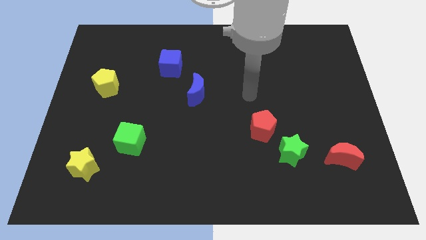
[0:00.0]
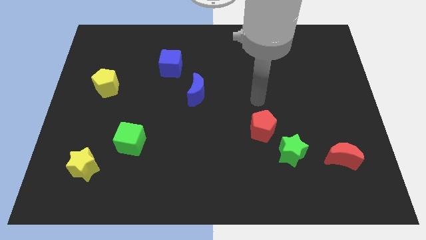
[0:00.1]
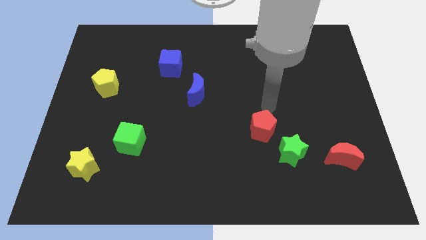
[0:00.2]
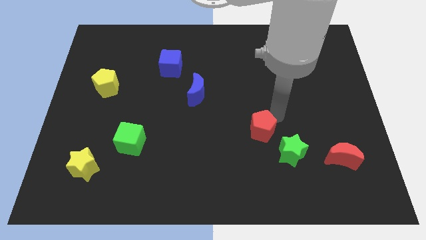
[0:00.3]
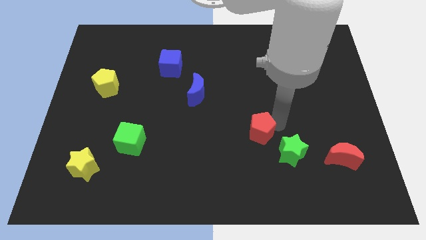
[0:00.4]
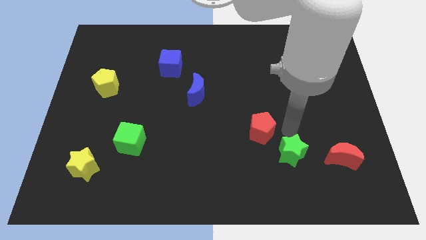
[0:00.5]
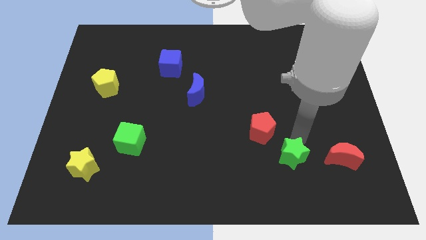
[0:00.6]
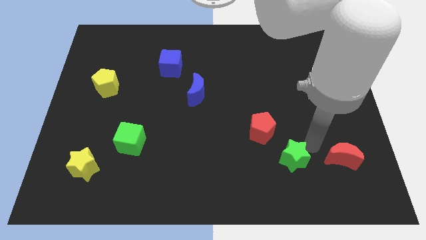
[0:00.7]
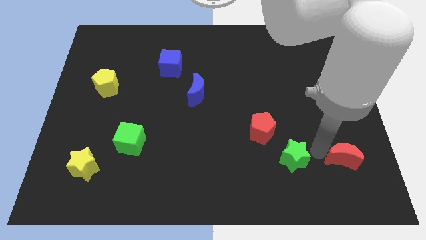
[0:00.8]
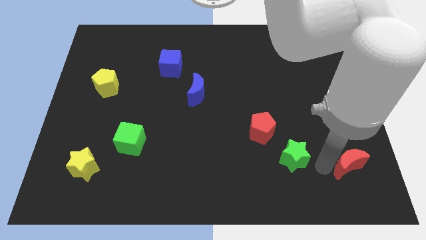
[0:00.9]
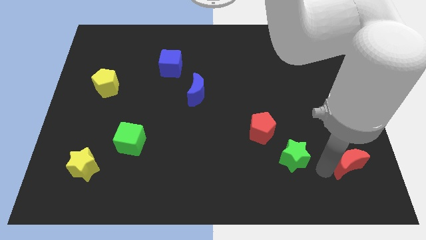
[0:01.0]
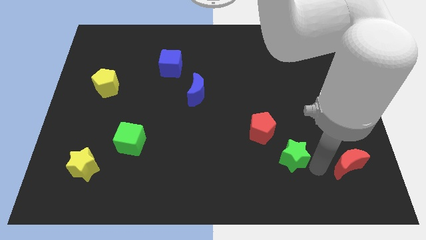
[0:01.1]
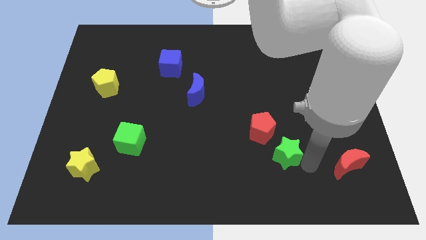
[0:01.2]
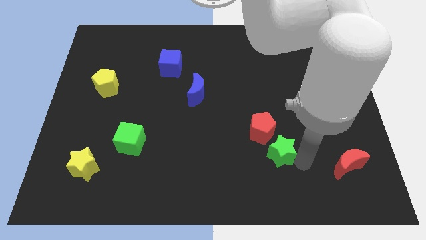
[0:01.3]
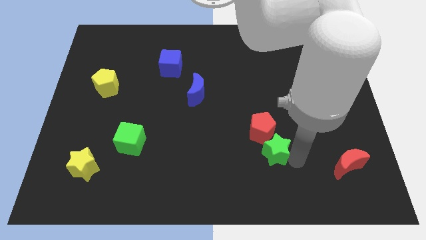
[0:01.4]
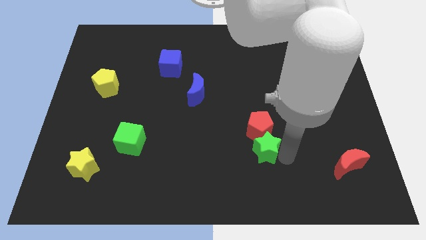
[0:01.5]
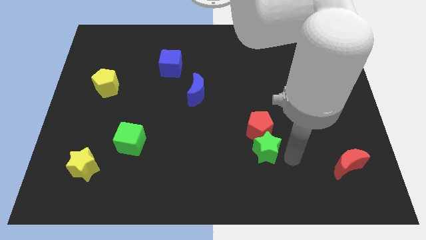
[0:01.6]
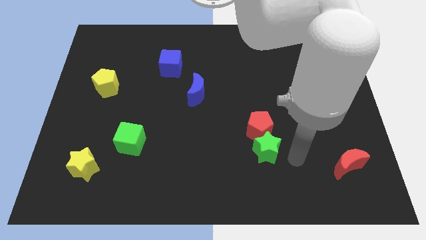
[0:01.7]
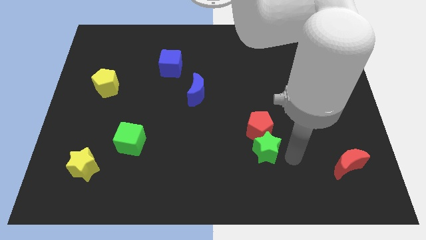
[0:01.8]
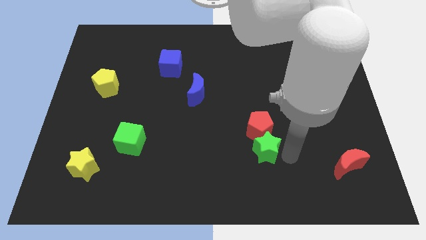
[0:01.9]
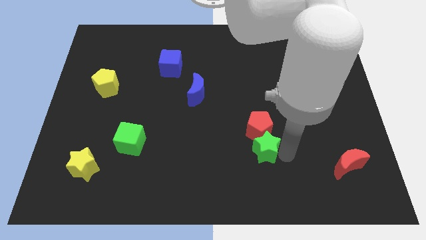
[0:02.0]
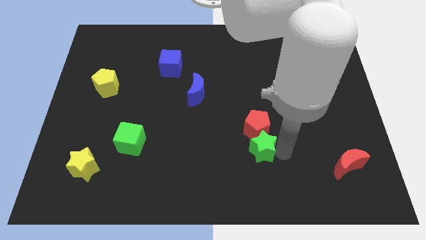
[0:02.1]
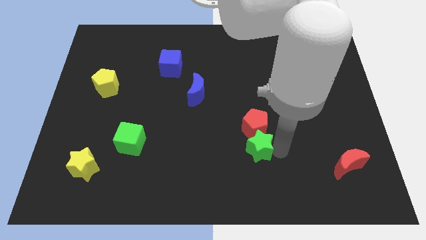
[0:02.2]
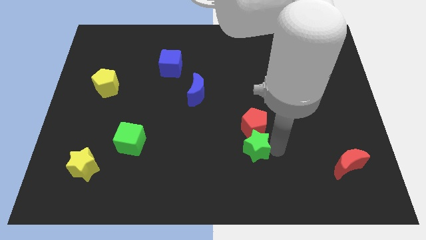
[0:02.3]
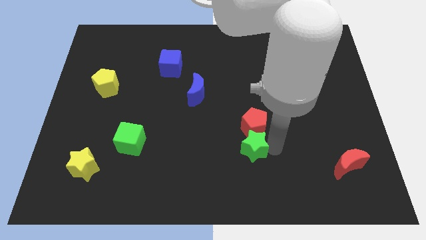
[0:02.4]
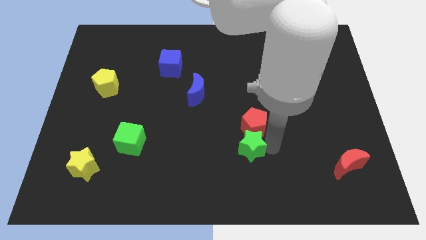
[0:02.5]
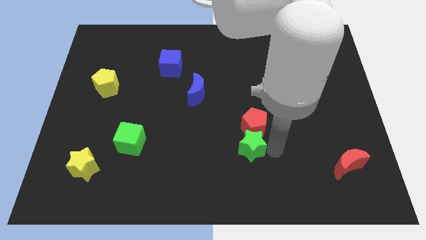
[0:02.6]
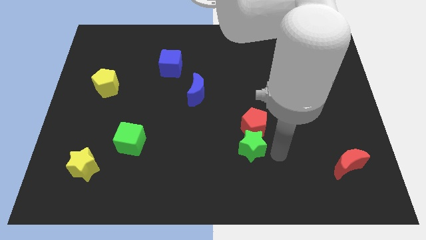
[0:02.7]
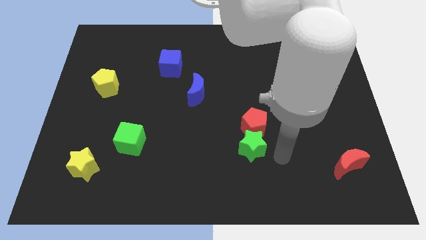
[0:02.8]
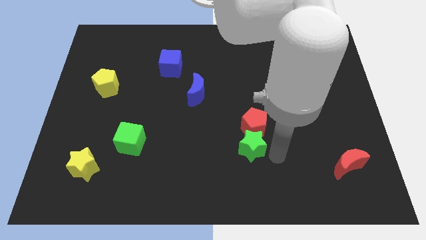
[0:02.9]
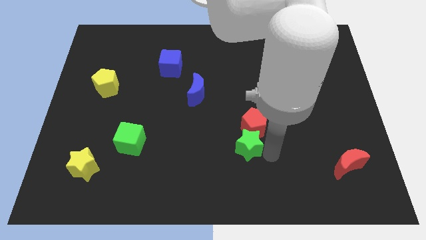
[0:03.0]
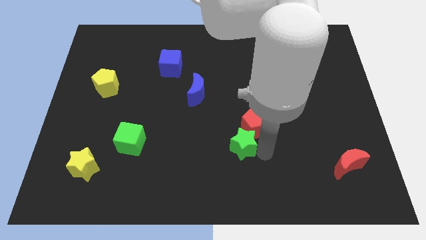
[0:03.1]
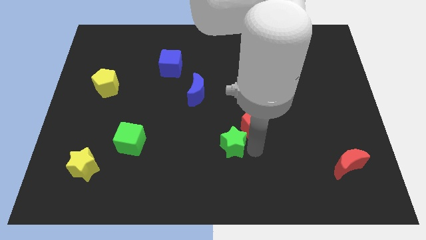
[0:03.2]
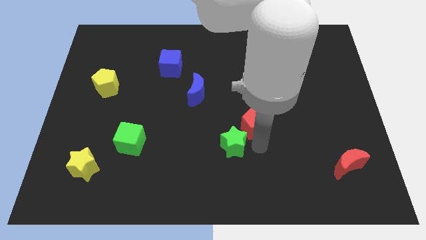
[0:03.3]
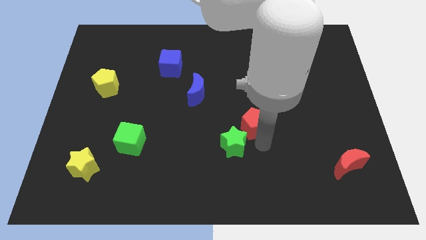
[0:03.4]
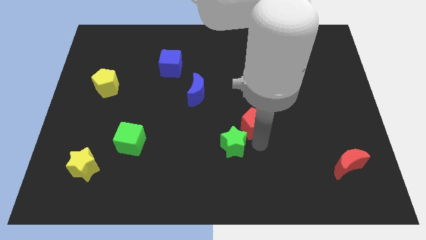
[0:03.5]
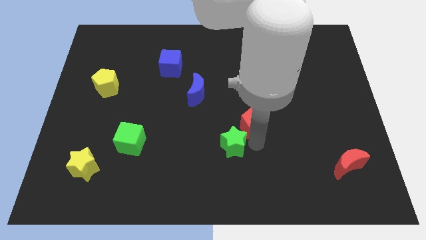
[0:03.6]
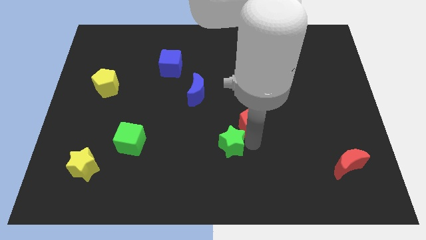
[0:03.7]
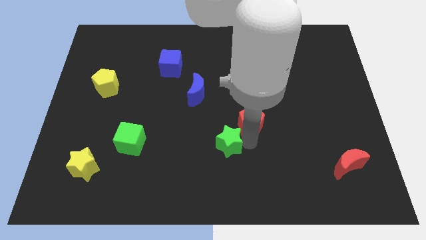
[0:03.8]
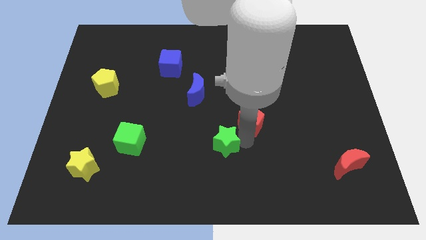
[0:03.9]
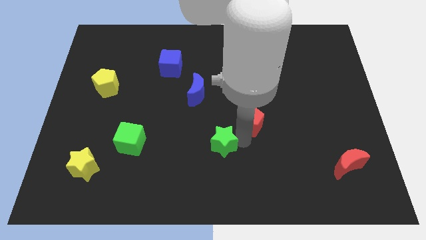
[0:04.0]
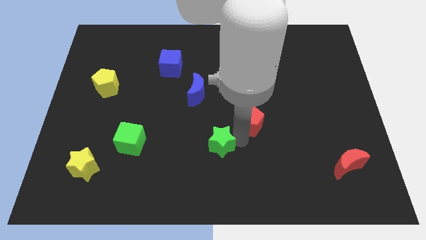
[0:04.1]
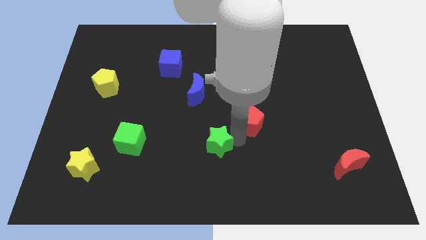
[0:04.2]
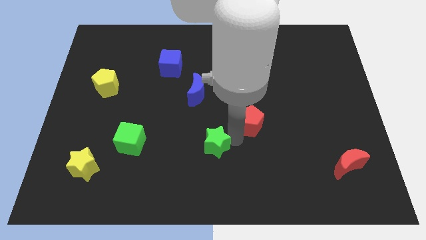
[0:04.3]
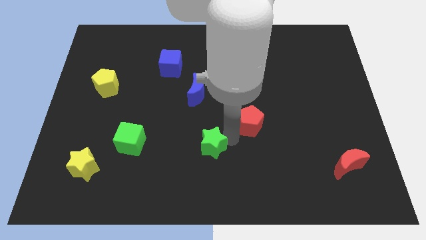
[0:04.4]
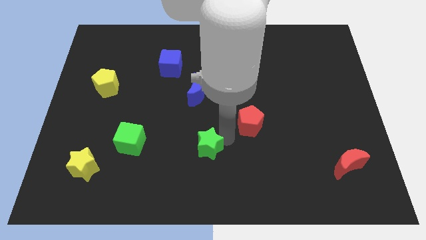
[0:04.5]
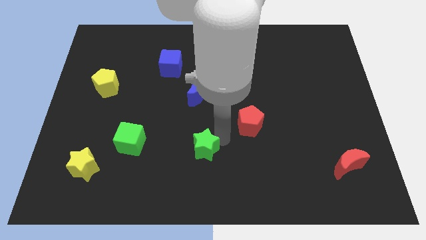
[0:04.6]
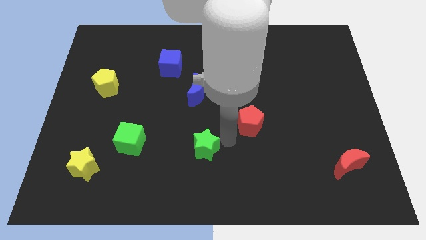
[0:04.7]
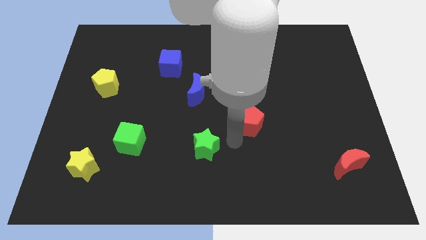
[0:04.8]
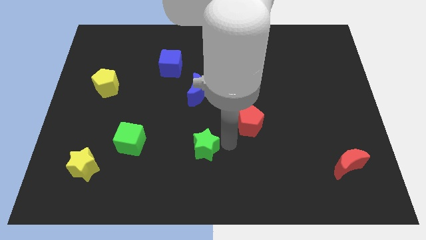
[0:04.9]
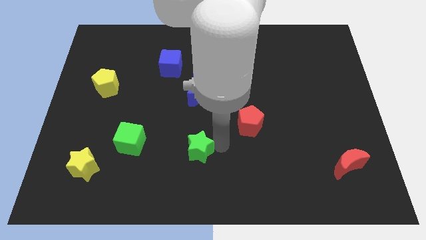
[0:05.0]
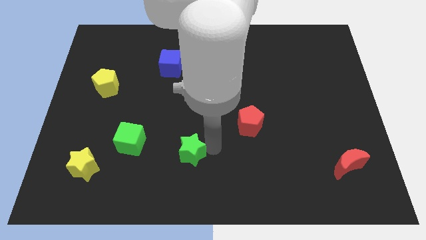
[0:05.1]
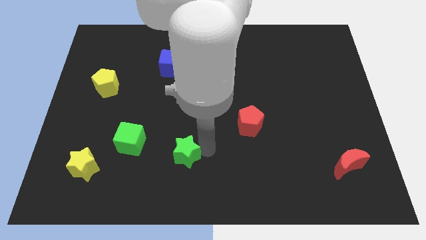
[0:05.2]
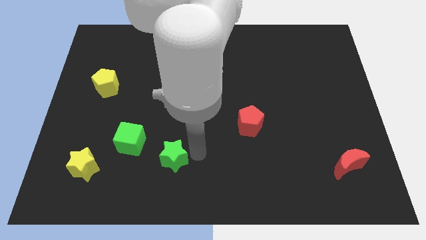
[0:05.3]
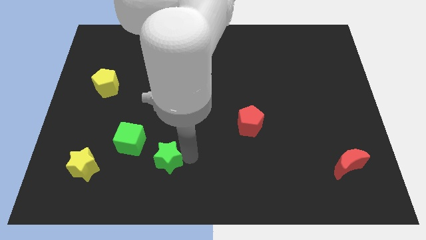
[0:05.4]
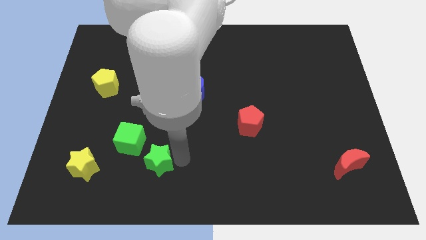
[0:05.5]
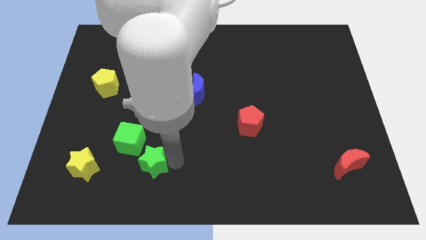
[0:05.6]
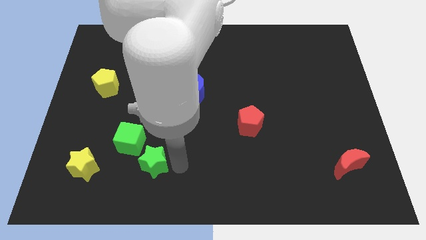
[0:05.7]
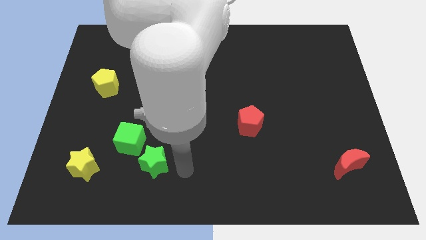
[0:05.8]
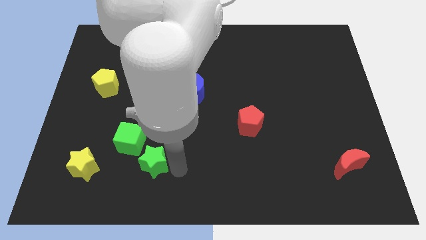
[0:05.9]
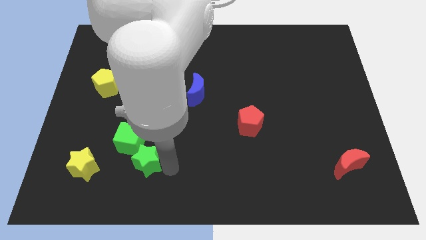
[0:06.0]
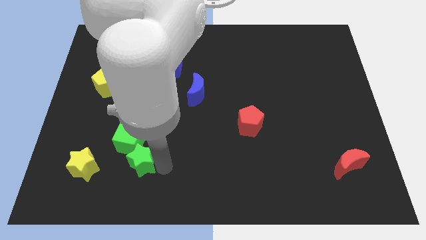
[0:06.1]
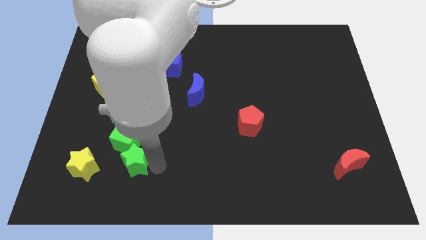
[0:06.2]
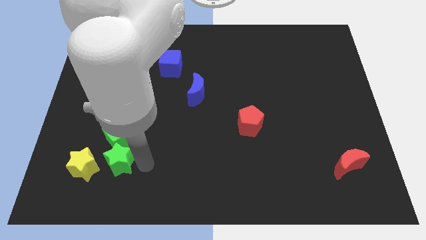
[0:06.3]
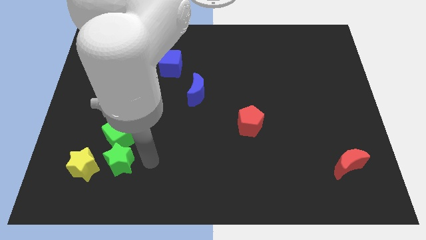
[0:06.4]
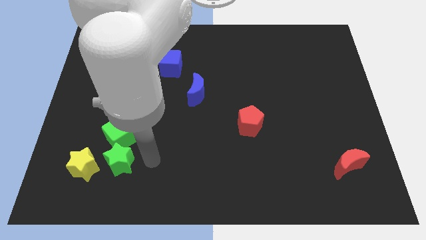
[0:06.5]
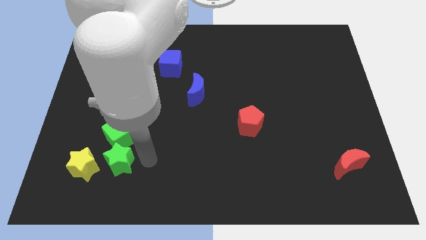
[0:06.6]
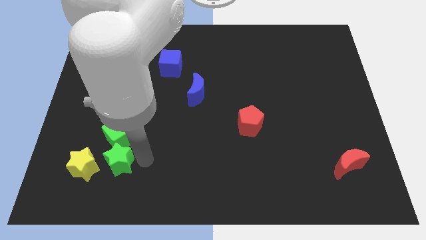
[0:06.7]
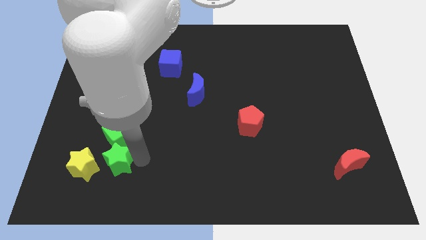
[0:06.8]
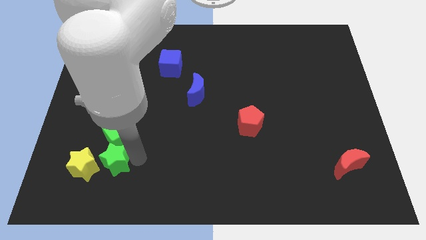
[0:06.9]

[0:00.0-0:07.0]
push the green star to the yellow star

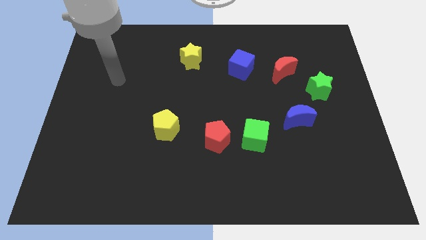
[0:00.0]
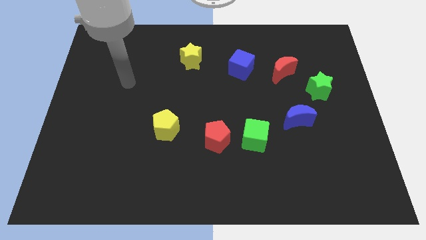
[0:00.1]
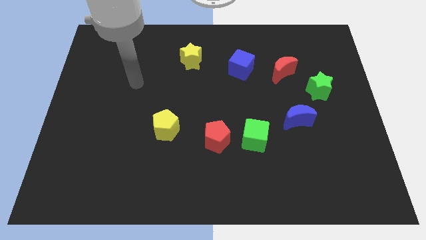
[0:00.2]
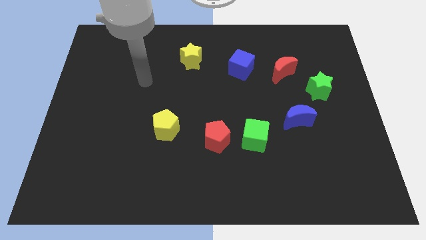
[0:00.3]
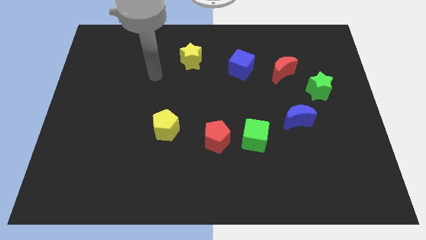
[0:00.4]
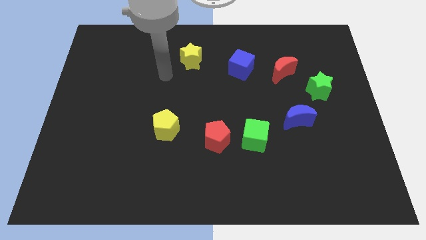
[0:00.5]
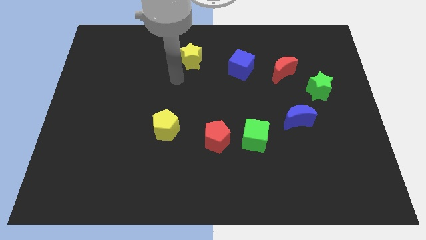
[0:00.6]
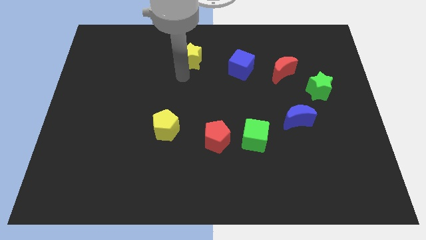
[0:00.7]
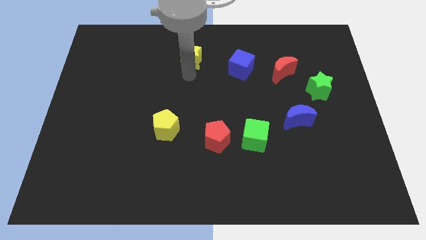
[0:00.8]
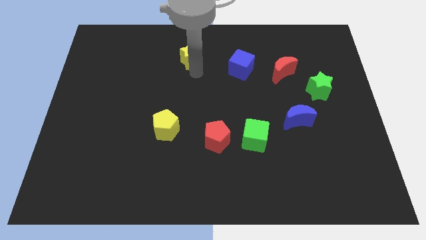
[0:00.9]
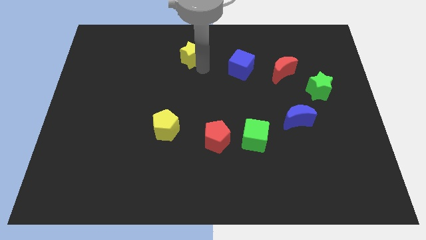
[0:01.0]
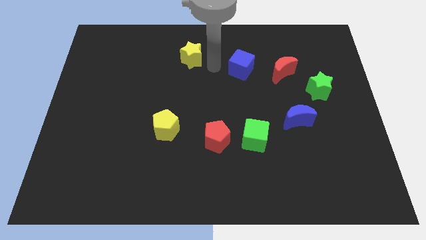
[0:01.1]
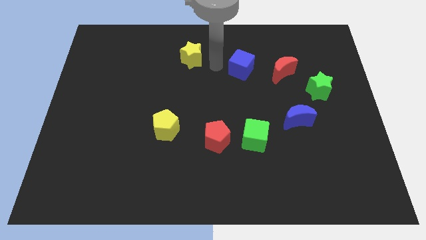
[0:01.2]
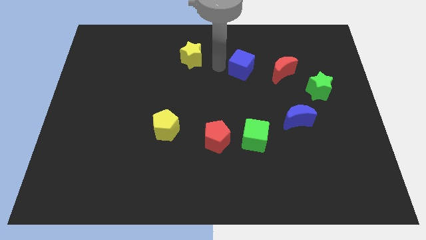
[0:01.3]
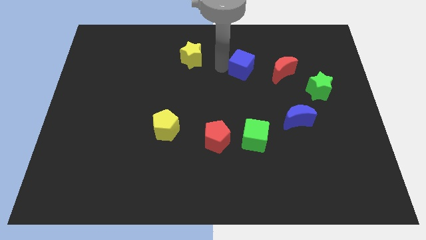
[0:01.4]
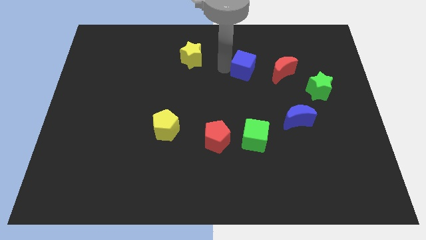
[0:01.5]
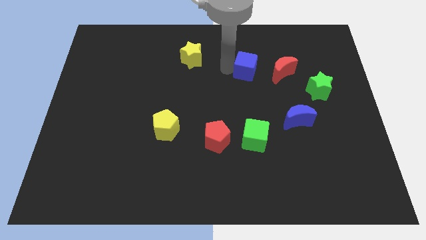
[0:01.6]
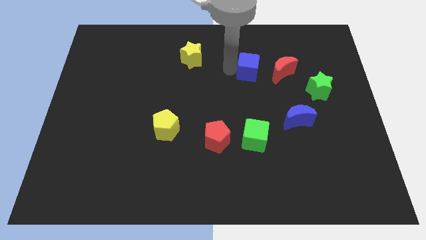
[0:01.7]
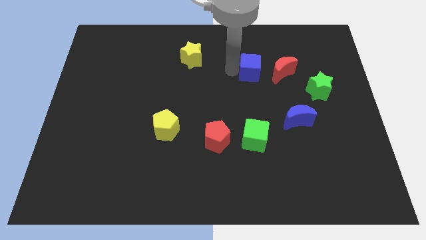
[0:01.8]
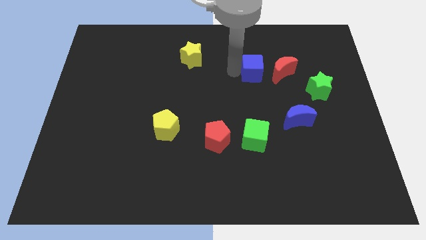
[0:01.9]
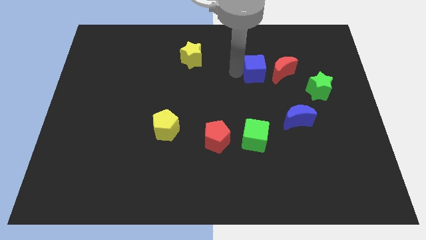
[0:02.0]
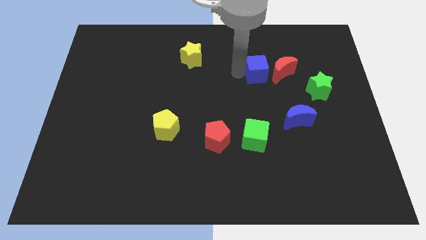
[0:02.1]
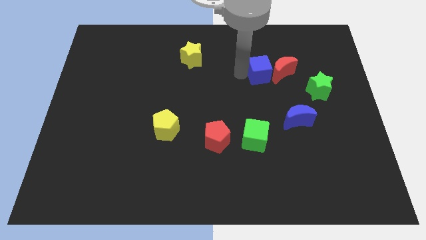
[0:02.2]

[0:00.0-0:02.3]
push the blue cube next to the red moon
